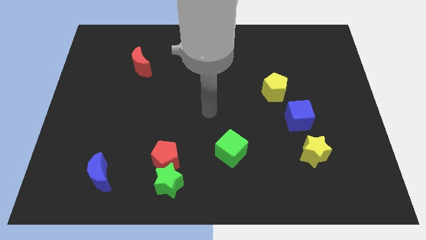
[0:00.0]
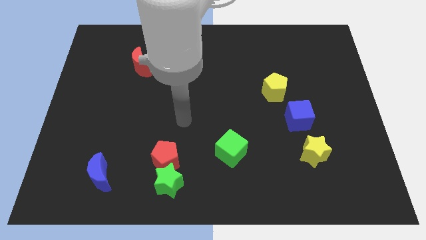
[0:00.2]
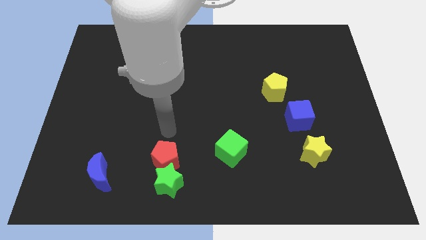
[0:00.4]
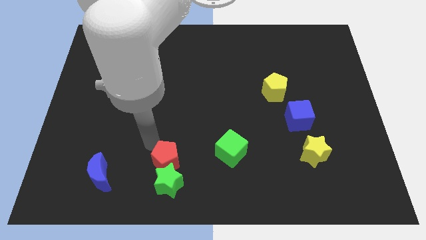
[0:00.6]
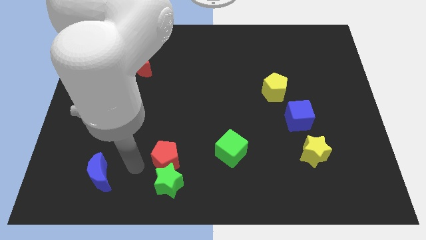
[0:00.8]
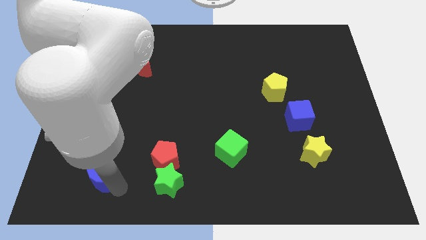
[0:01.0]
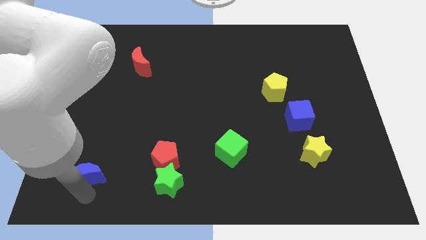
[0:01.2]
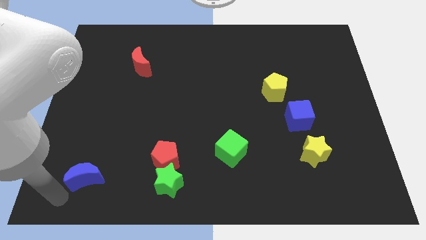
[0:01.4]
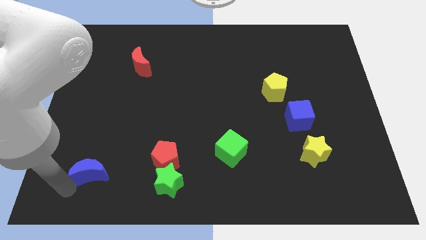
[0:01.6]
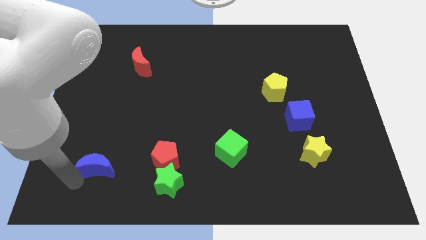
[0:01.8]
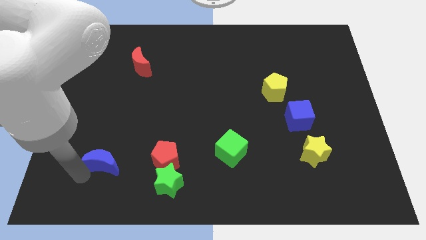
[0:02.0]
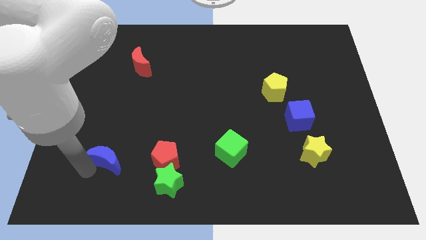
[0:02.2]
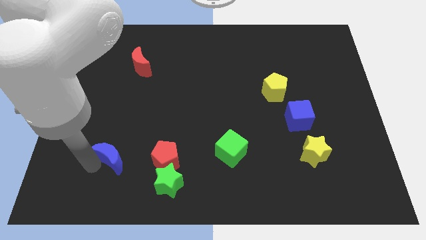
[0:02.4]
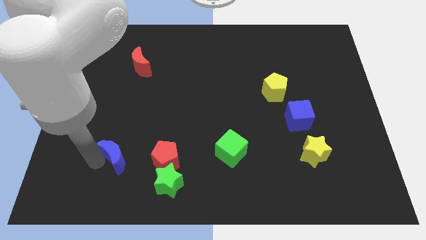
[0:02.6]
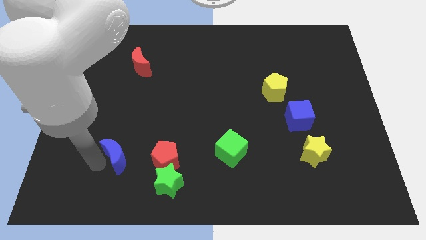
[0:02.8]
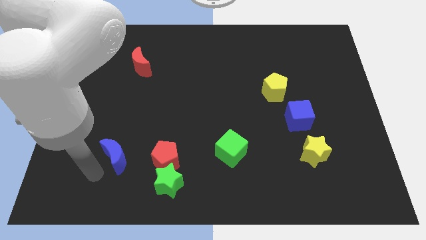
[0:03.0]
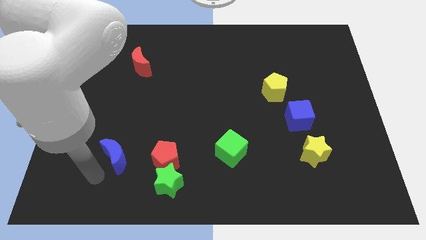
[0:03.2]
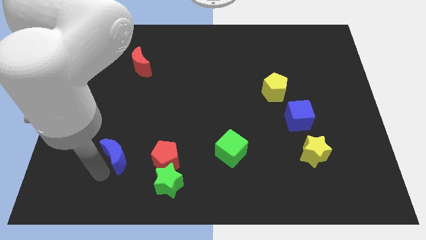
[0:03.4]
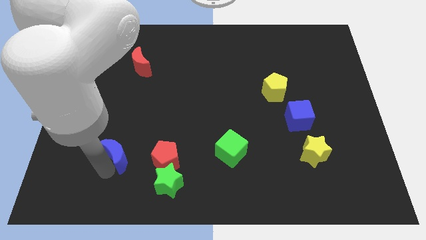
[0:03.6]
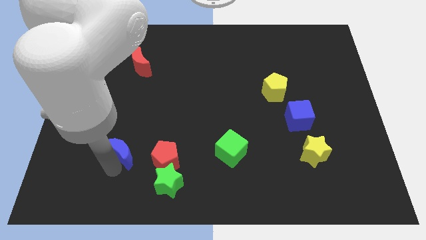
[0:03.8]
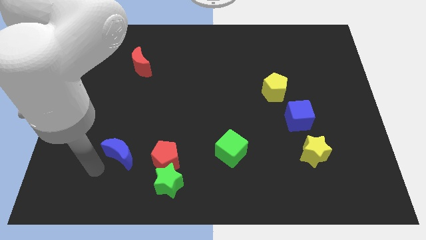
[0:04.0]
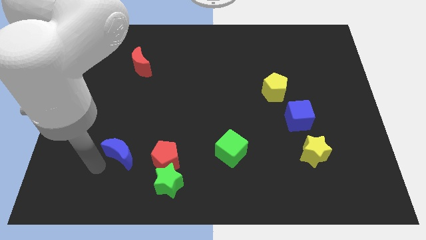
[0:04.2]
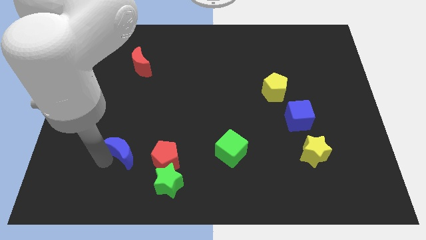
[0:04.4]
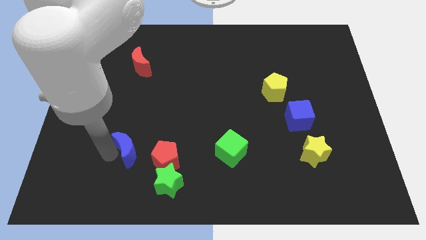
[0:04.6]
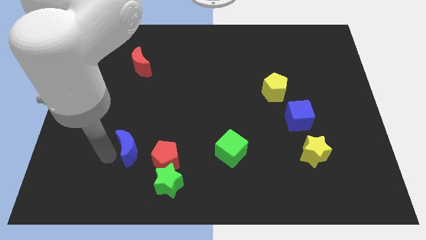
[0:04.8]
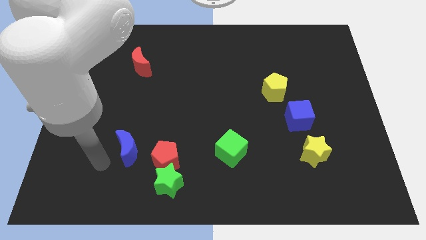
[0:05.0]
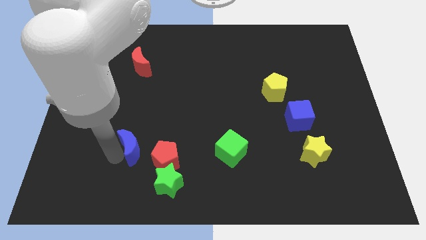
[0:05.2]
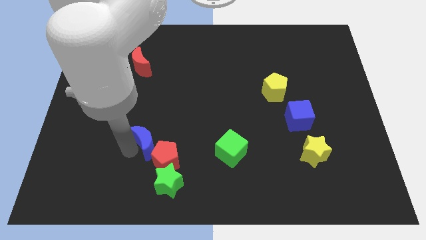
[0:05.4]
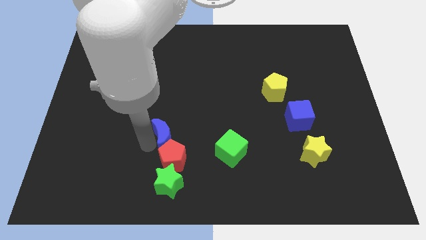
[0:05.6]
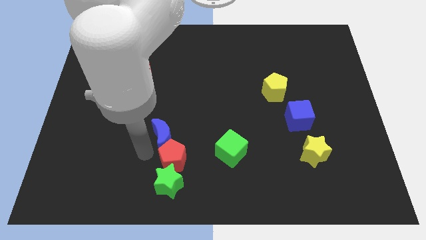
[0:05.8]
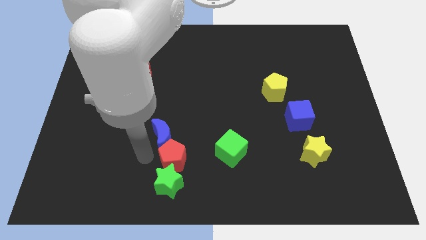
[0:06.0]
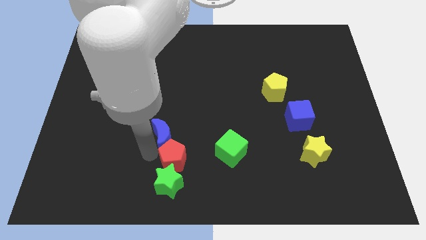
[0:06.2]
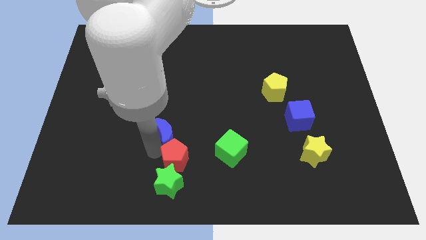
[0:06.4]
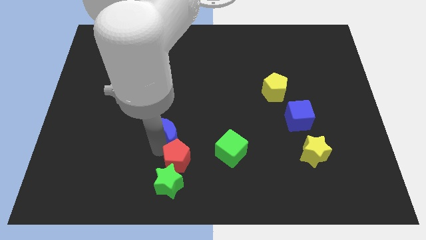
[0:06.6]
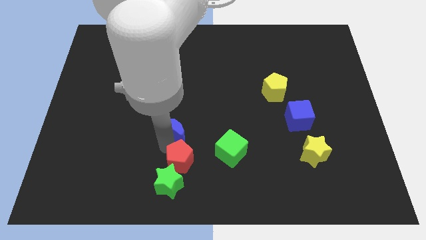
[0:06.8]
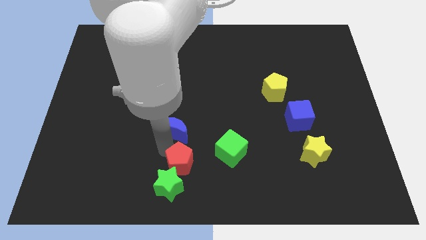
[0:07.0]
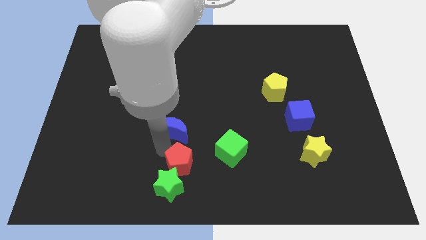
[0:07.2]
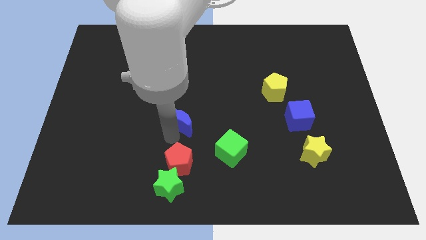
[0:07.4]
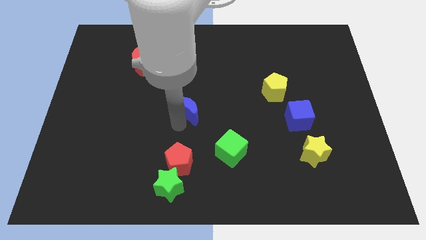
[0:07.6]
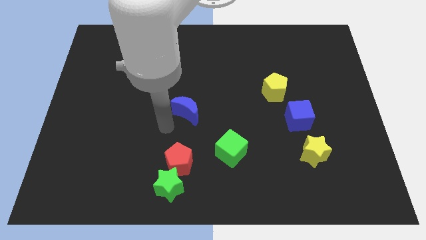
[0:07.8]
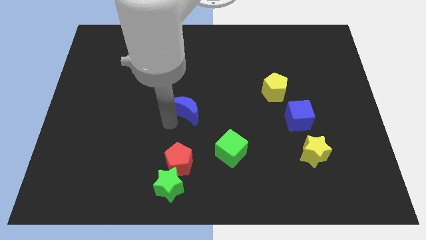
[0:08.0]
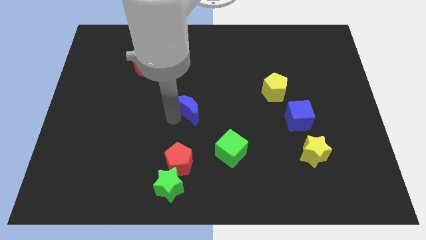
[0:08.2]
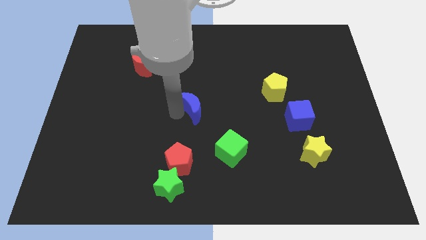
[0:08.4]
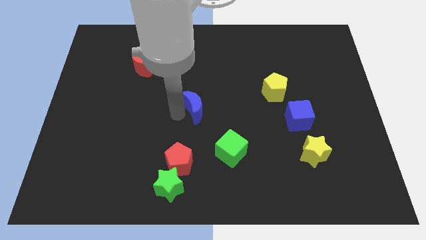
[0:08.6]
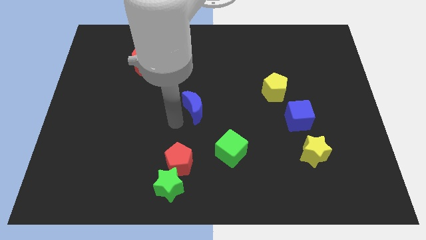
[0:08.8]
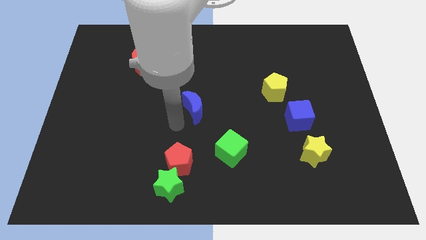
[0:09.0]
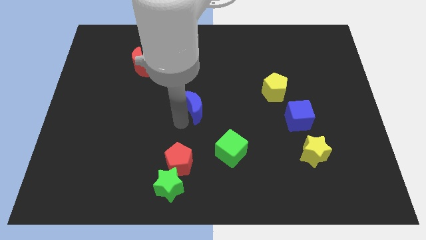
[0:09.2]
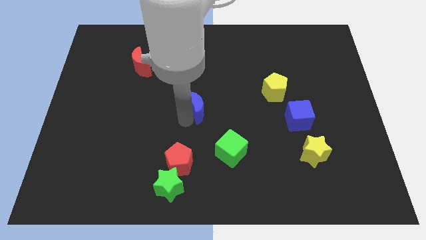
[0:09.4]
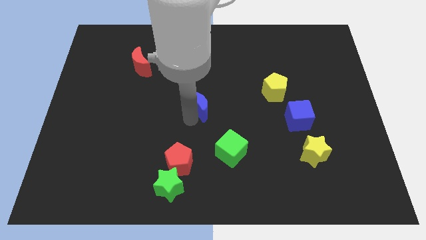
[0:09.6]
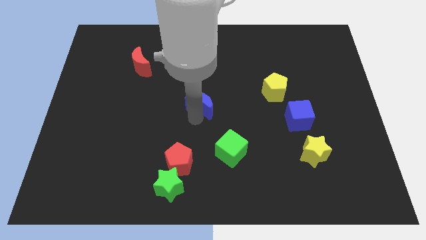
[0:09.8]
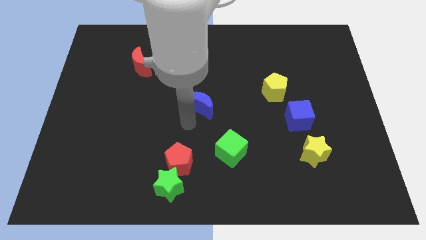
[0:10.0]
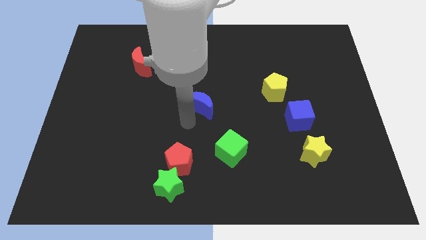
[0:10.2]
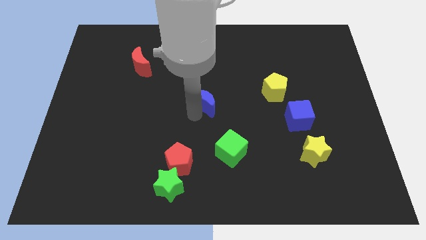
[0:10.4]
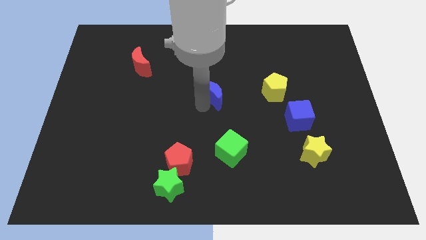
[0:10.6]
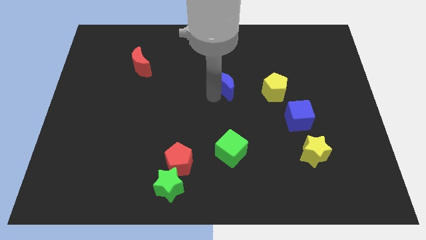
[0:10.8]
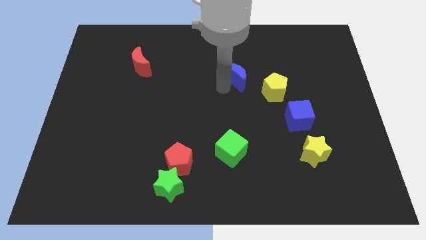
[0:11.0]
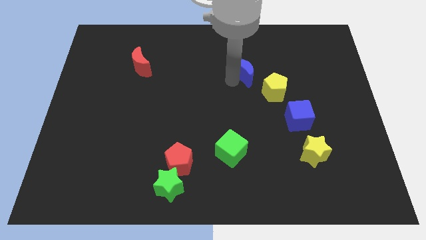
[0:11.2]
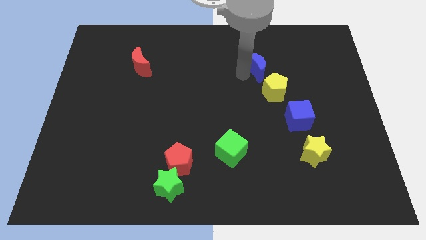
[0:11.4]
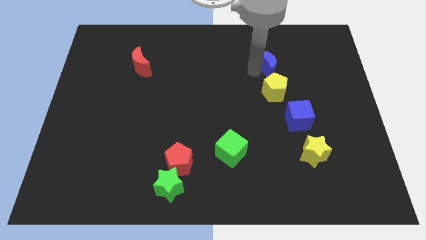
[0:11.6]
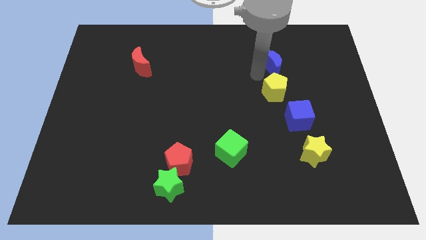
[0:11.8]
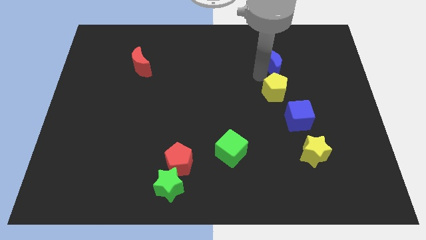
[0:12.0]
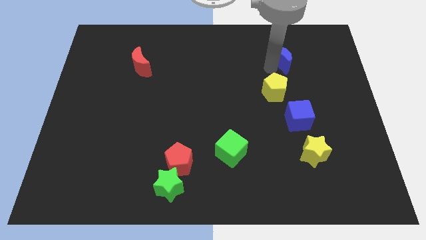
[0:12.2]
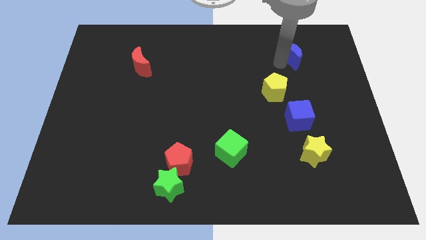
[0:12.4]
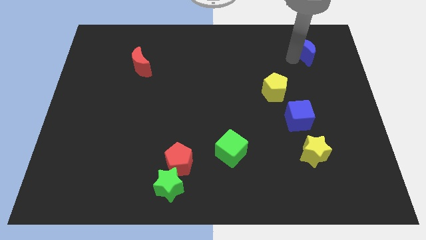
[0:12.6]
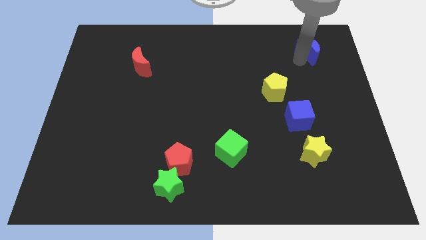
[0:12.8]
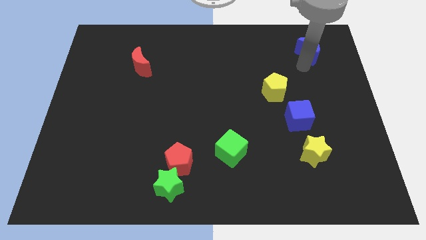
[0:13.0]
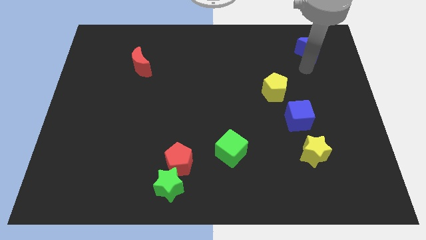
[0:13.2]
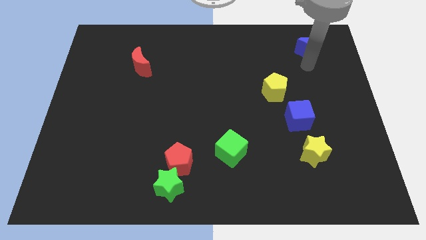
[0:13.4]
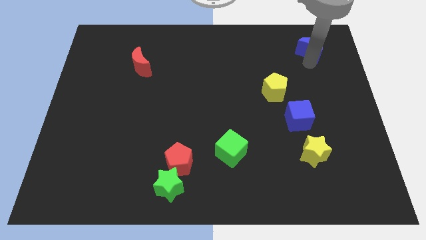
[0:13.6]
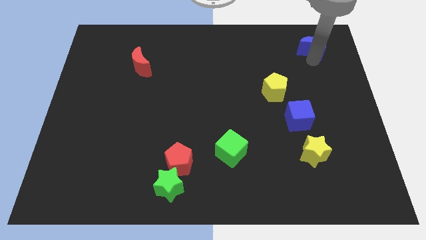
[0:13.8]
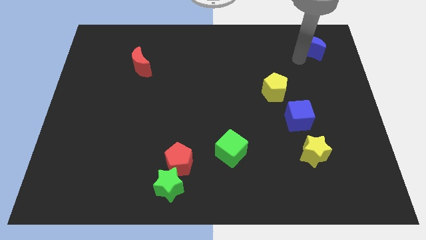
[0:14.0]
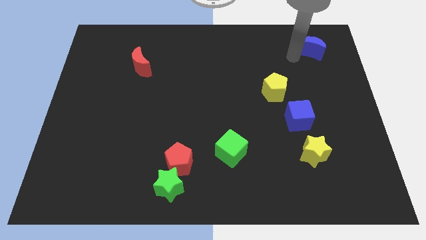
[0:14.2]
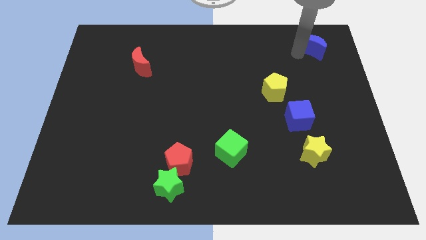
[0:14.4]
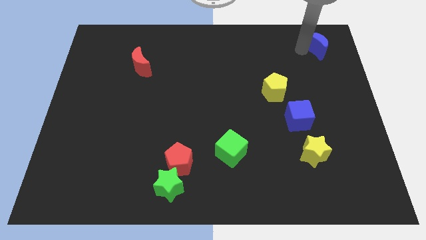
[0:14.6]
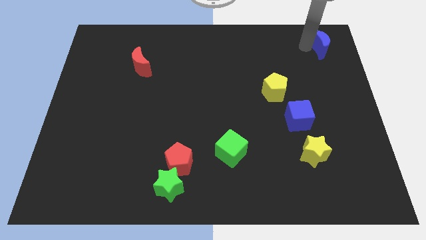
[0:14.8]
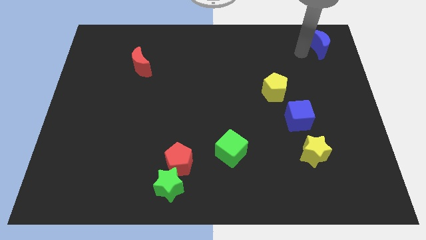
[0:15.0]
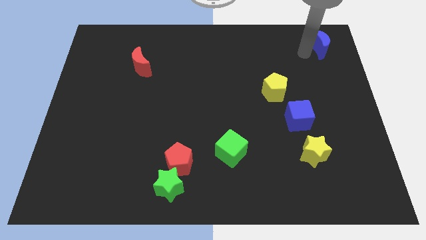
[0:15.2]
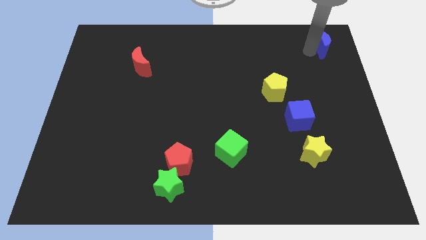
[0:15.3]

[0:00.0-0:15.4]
slide the blue moon to the top right corner
